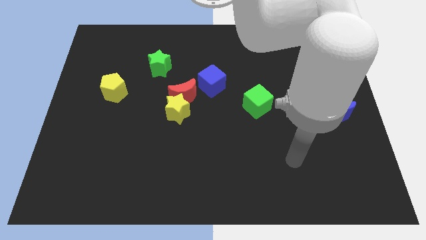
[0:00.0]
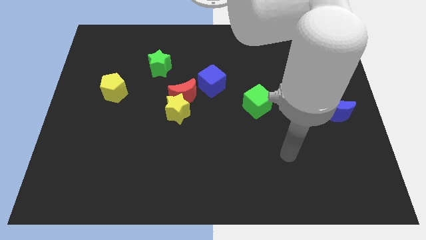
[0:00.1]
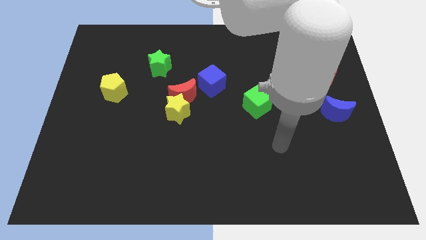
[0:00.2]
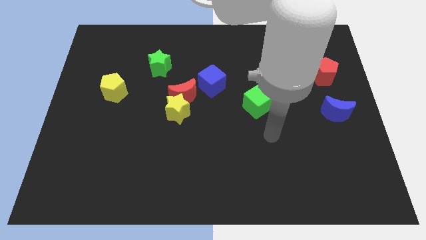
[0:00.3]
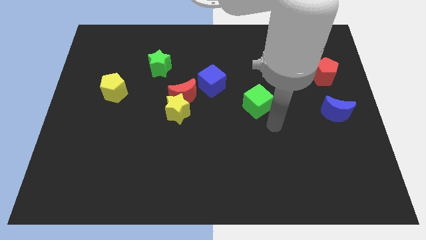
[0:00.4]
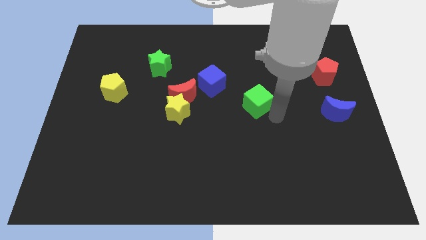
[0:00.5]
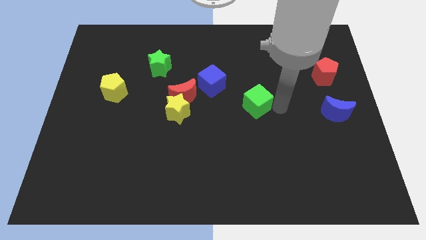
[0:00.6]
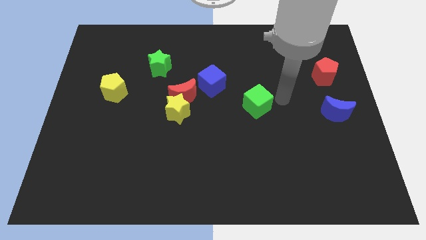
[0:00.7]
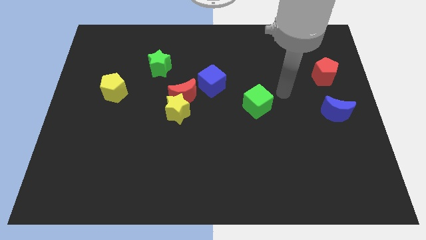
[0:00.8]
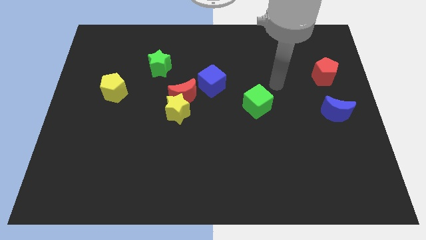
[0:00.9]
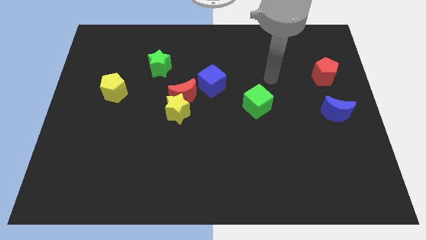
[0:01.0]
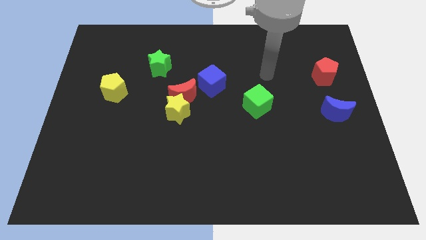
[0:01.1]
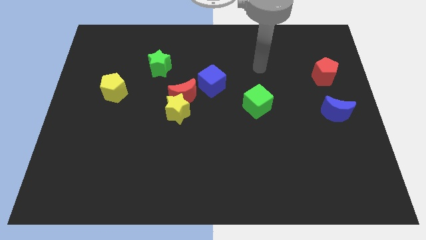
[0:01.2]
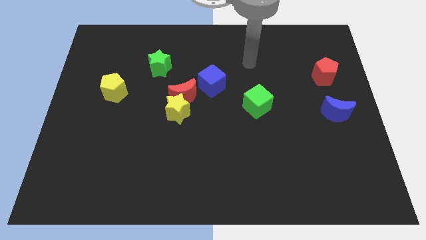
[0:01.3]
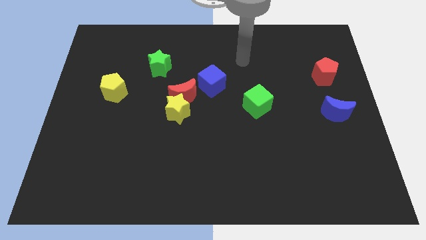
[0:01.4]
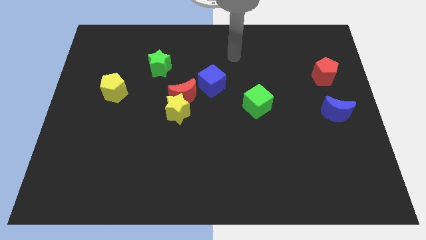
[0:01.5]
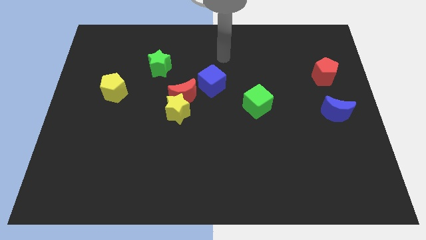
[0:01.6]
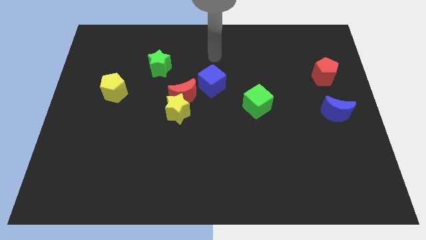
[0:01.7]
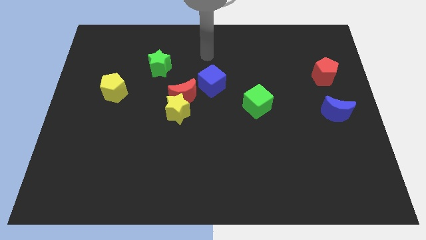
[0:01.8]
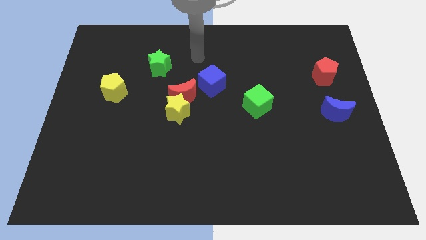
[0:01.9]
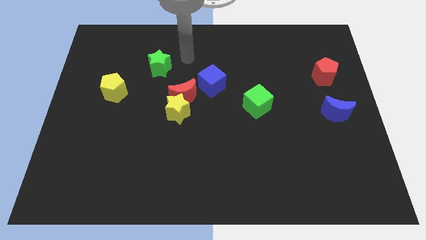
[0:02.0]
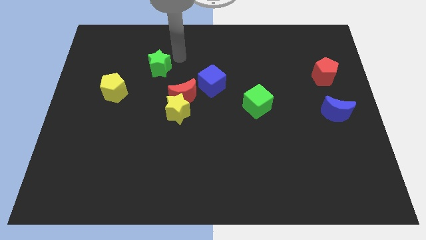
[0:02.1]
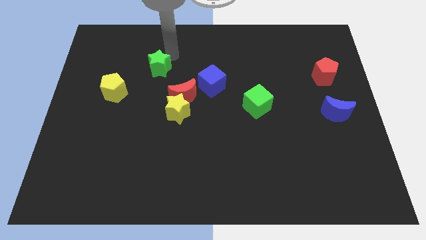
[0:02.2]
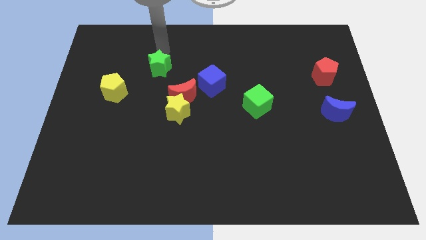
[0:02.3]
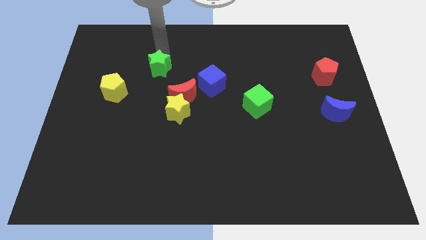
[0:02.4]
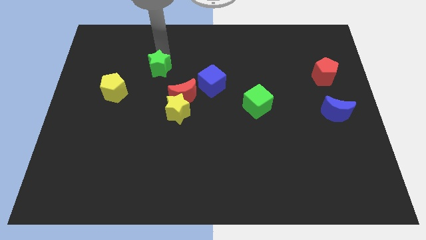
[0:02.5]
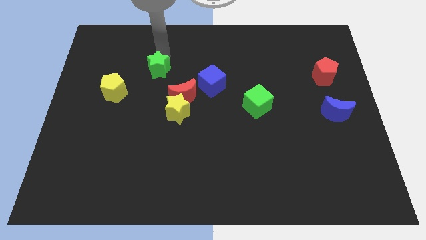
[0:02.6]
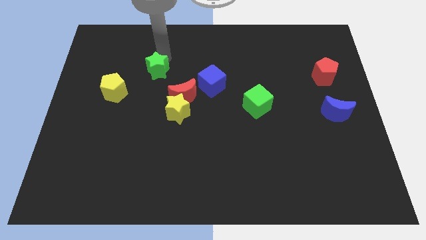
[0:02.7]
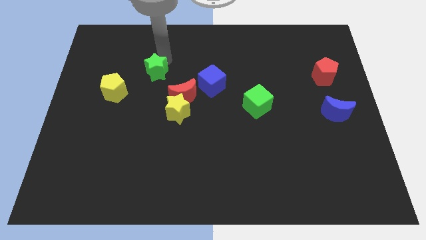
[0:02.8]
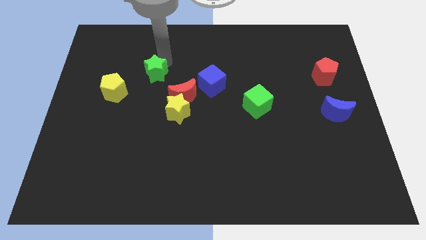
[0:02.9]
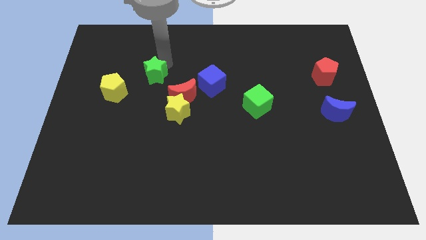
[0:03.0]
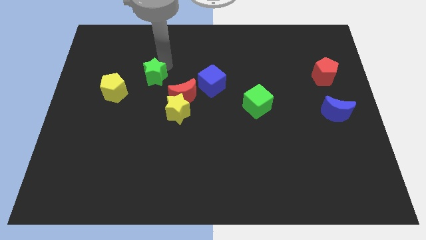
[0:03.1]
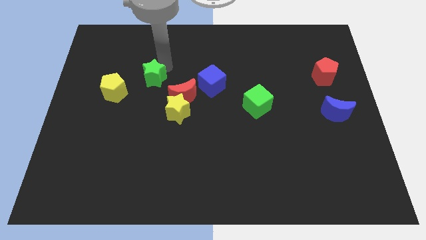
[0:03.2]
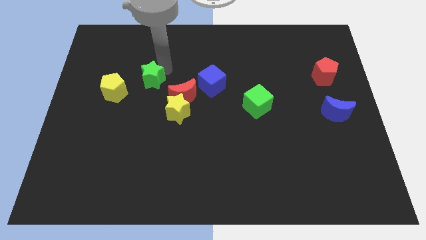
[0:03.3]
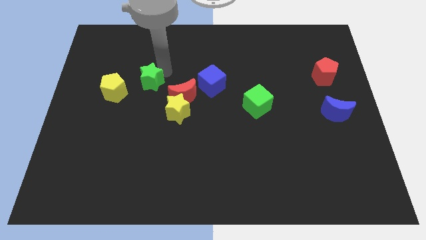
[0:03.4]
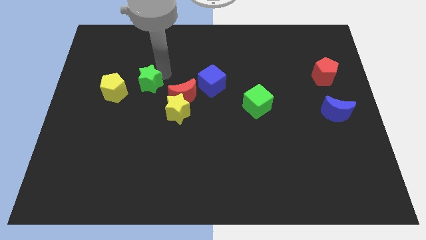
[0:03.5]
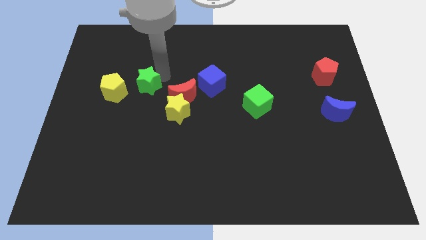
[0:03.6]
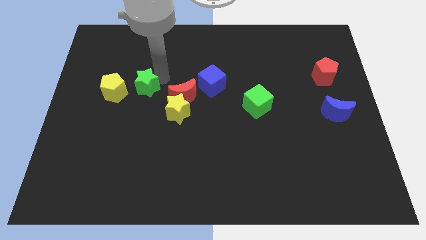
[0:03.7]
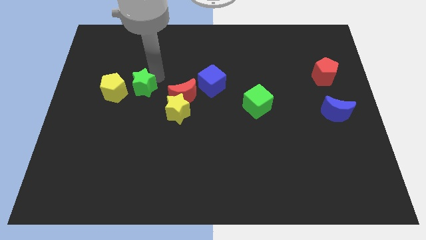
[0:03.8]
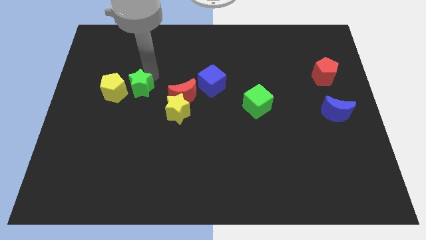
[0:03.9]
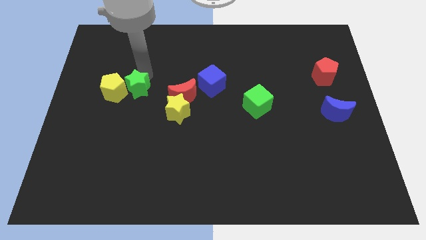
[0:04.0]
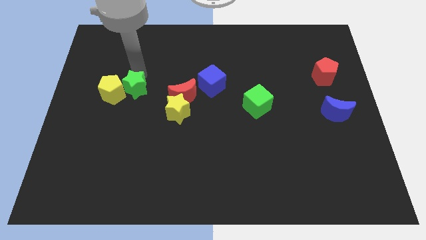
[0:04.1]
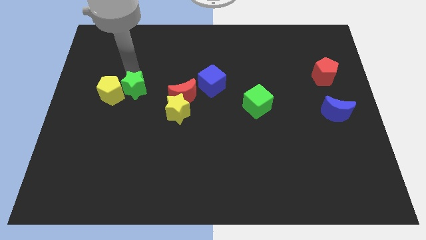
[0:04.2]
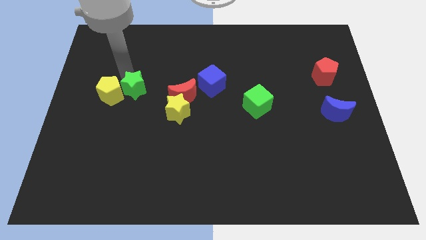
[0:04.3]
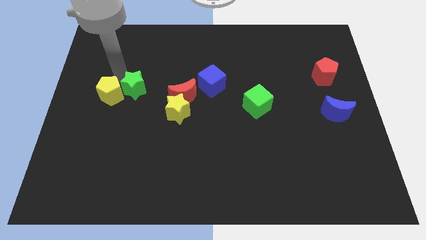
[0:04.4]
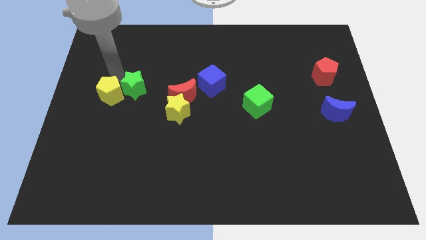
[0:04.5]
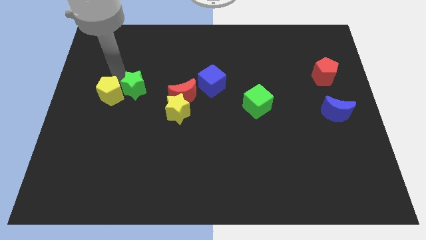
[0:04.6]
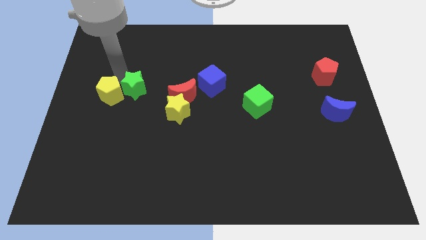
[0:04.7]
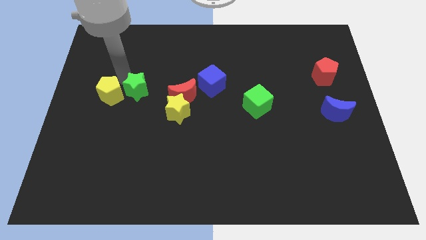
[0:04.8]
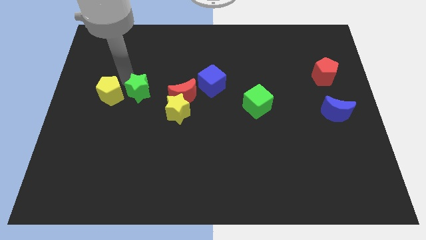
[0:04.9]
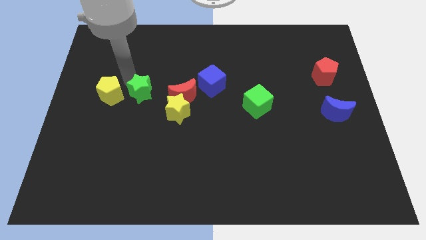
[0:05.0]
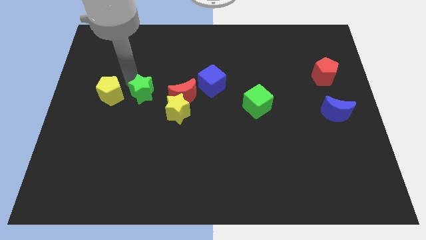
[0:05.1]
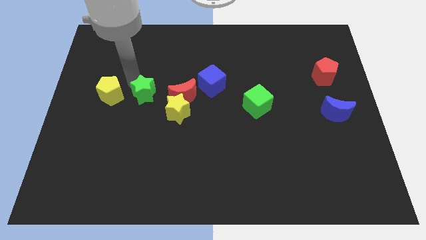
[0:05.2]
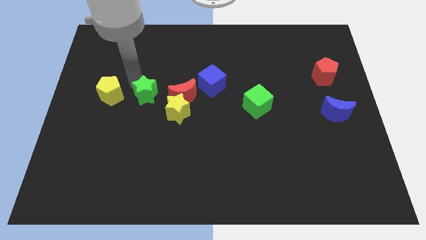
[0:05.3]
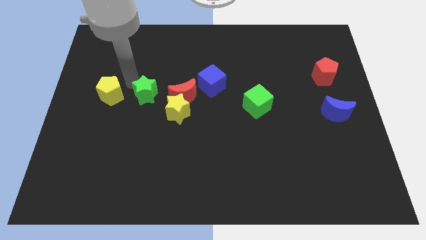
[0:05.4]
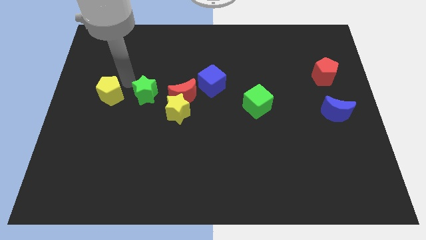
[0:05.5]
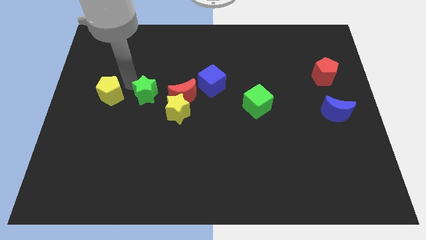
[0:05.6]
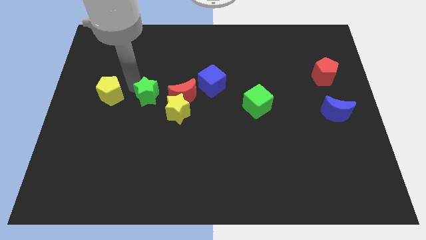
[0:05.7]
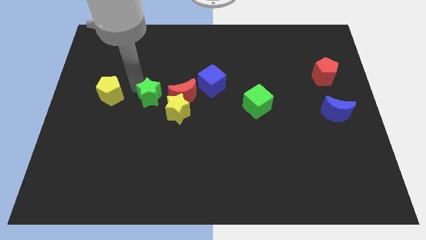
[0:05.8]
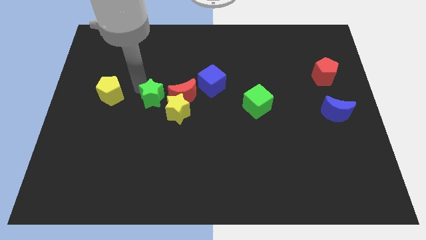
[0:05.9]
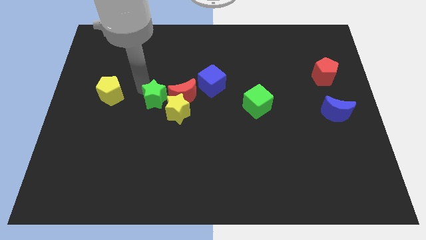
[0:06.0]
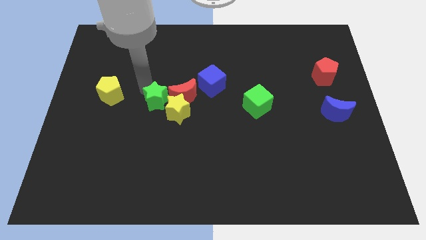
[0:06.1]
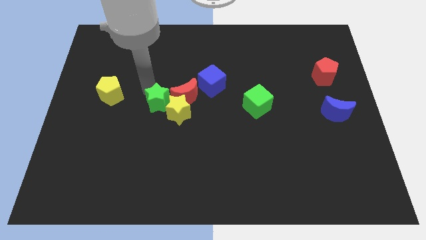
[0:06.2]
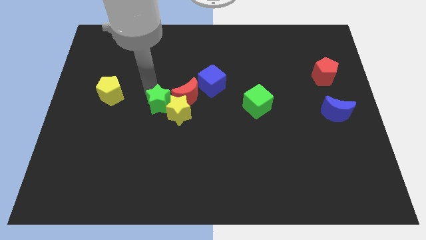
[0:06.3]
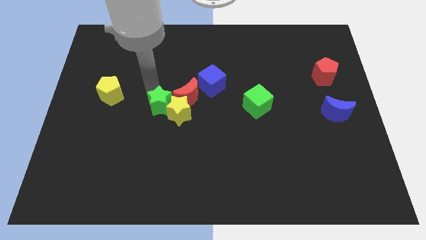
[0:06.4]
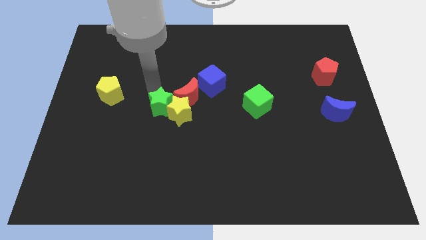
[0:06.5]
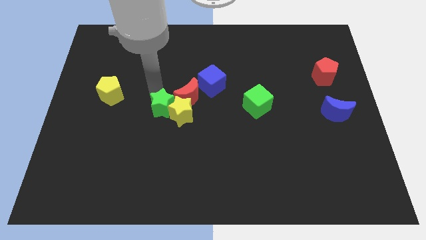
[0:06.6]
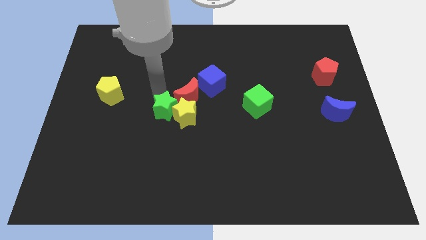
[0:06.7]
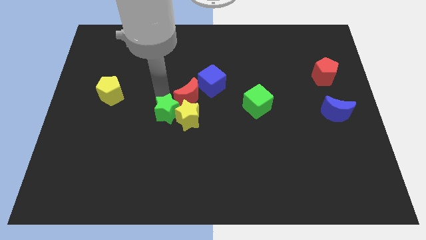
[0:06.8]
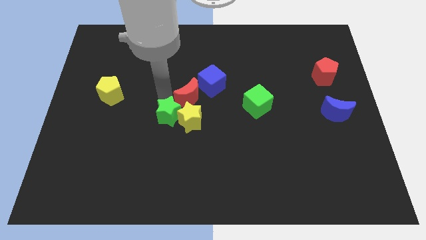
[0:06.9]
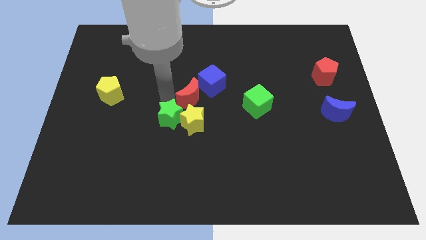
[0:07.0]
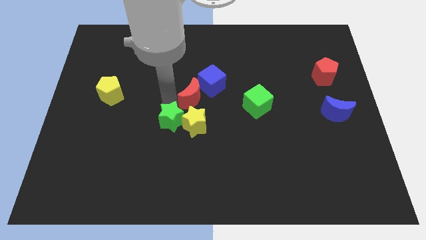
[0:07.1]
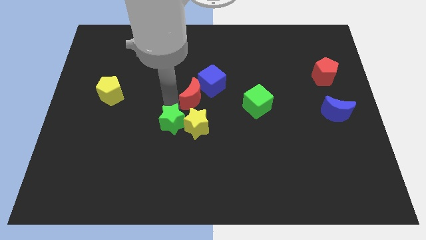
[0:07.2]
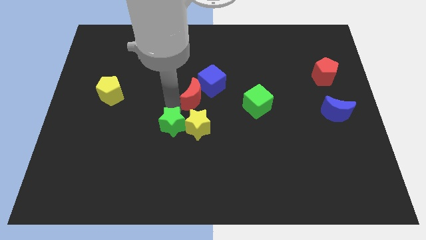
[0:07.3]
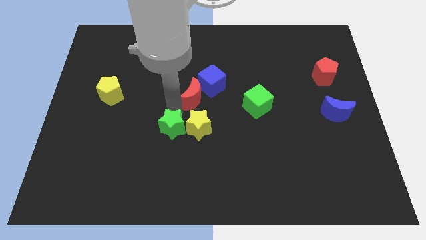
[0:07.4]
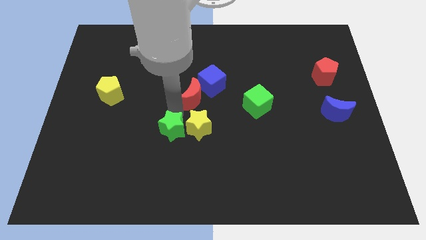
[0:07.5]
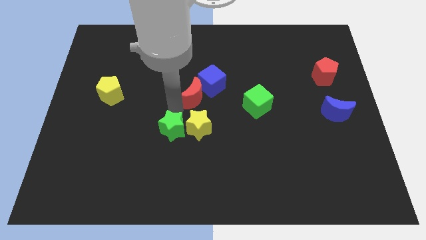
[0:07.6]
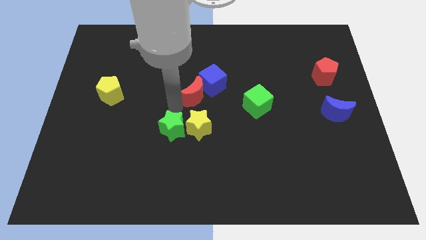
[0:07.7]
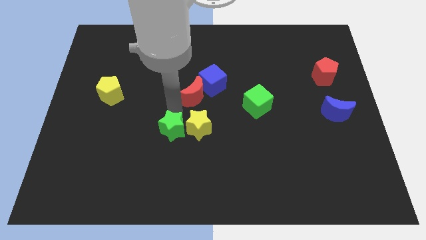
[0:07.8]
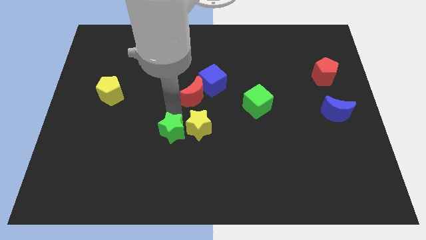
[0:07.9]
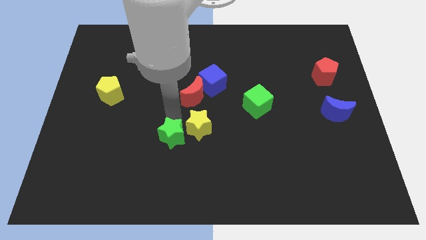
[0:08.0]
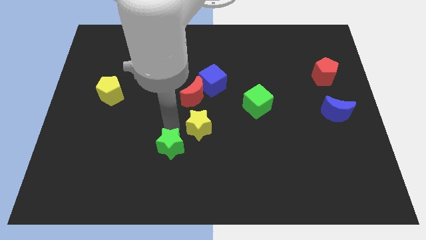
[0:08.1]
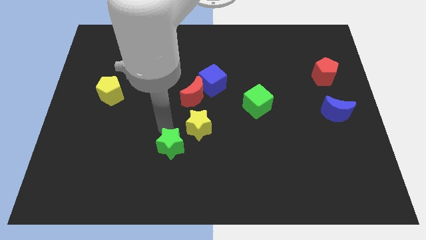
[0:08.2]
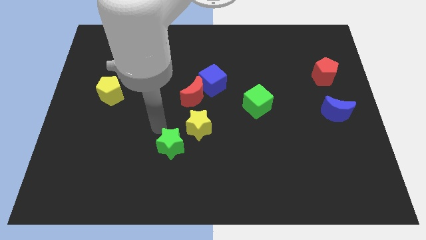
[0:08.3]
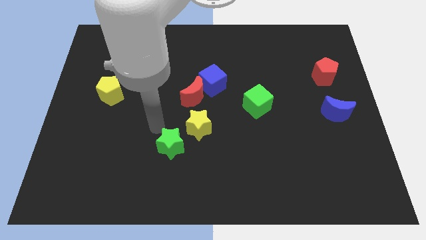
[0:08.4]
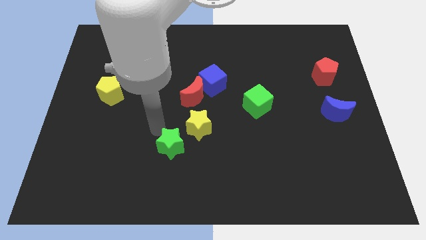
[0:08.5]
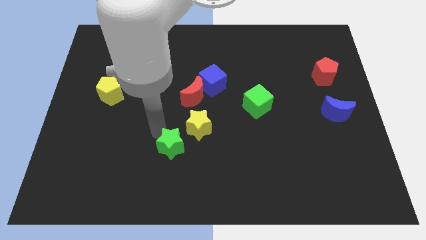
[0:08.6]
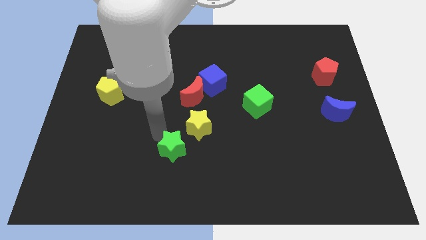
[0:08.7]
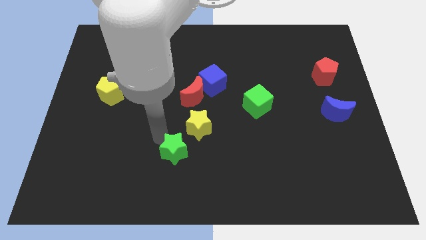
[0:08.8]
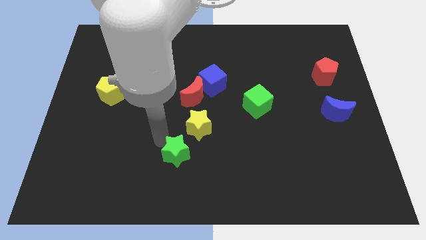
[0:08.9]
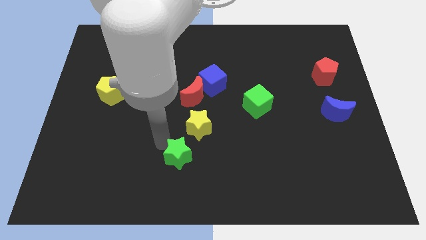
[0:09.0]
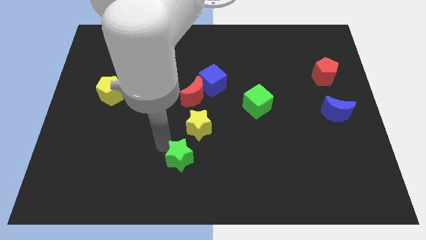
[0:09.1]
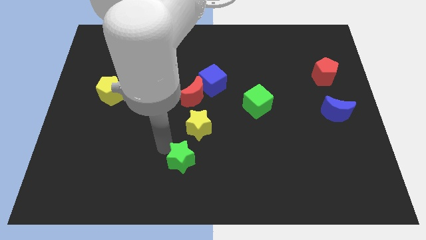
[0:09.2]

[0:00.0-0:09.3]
put the green star to the bottom
